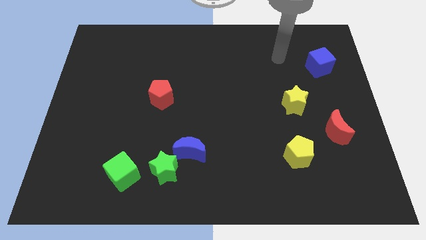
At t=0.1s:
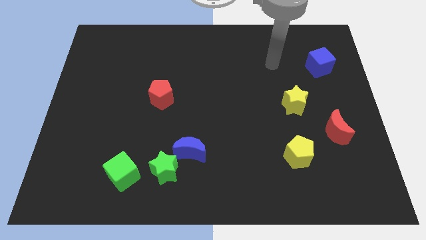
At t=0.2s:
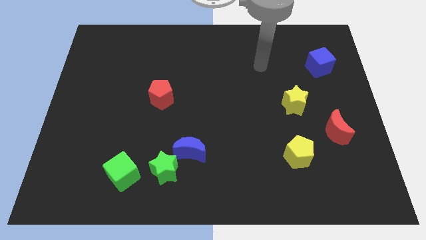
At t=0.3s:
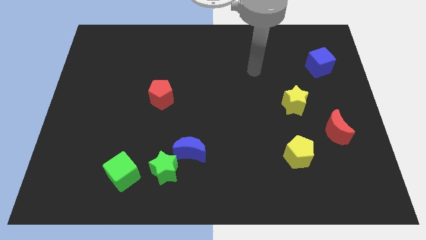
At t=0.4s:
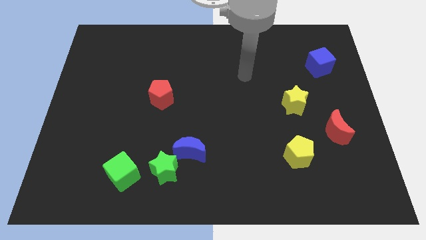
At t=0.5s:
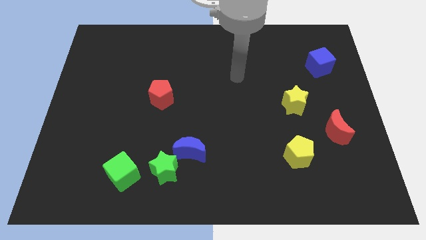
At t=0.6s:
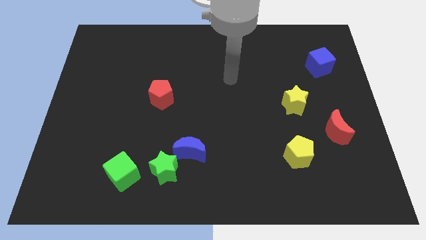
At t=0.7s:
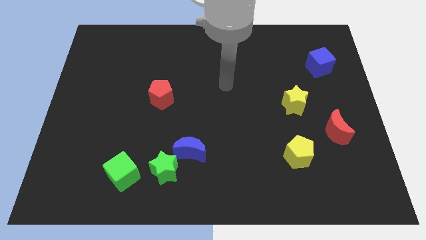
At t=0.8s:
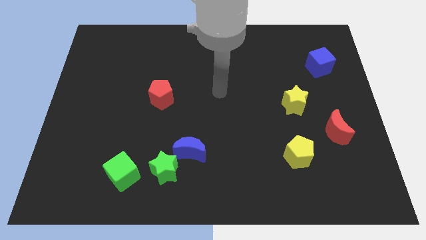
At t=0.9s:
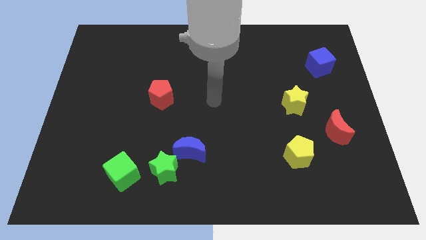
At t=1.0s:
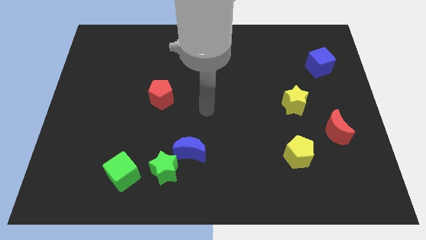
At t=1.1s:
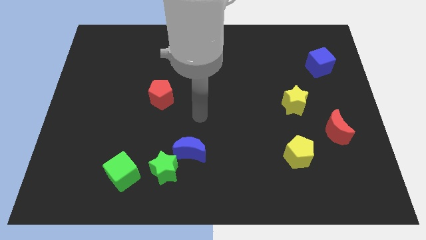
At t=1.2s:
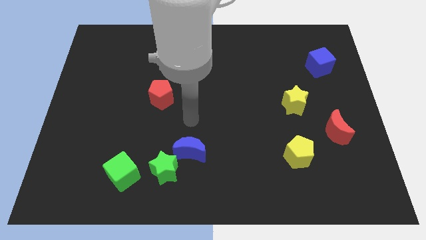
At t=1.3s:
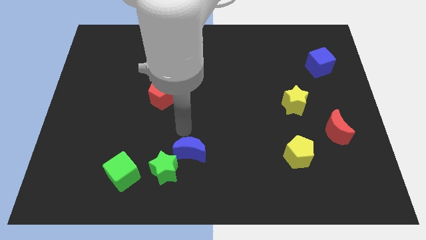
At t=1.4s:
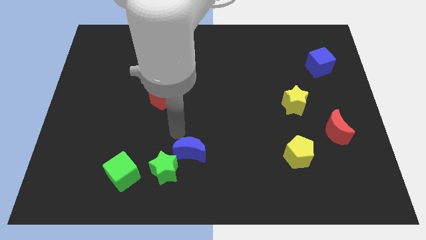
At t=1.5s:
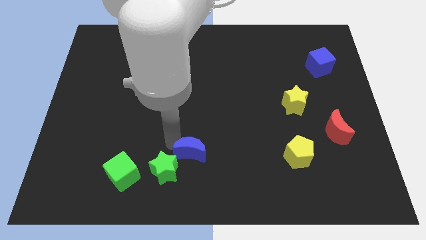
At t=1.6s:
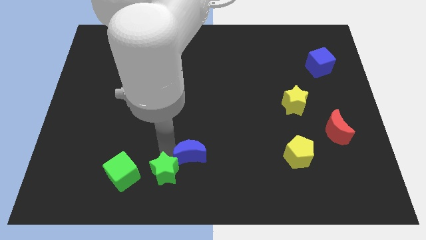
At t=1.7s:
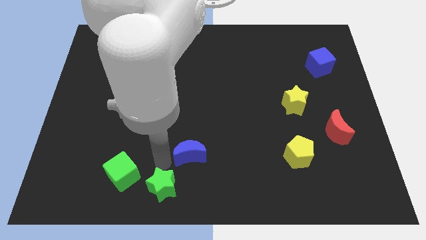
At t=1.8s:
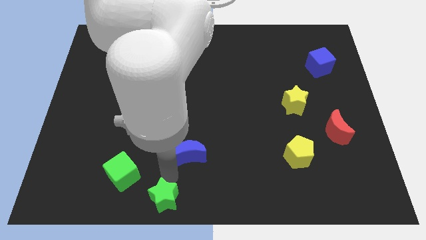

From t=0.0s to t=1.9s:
pull the blue moon apart from the green star

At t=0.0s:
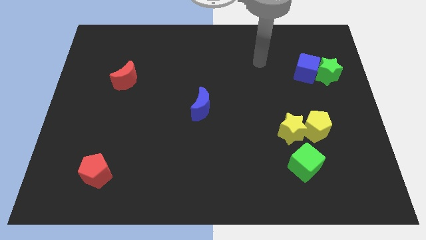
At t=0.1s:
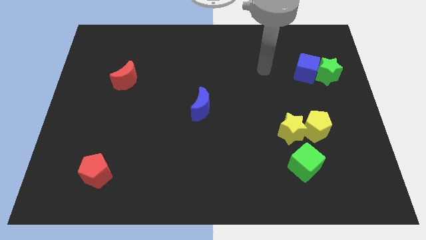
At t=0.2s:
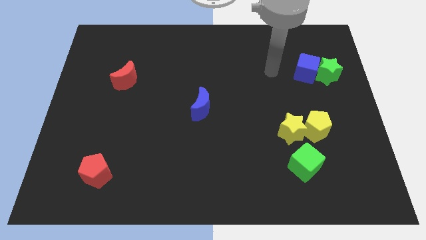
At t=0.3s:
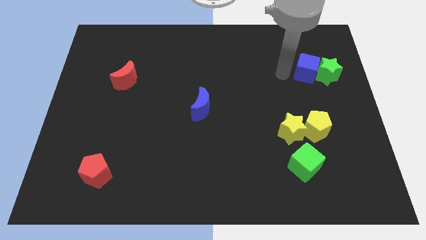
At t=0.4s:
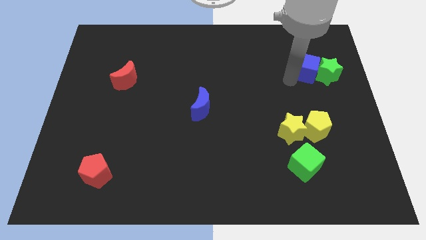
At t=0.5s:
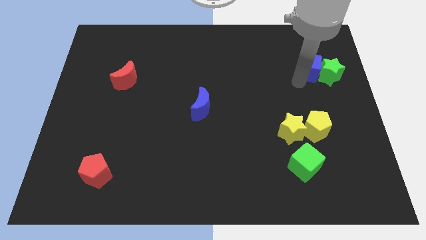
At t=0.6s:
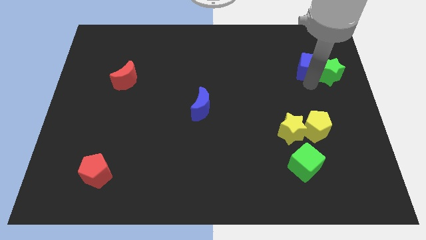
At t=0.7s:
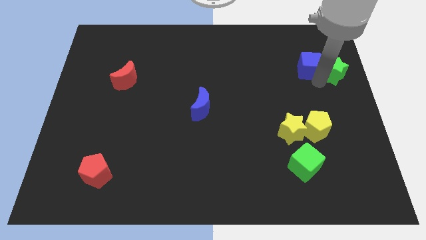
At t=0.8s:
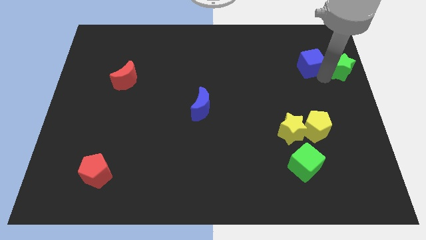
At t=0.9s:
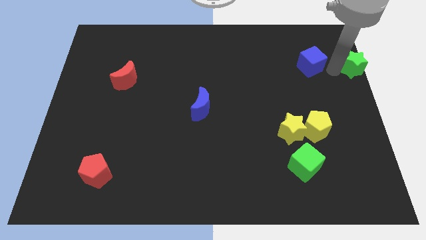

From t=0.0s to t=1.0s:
move the blue cube away from the green star

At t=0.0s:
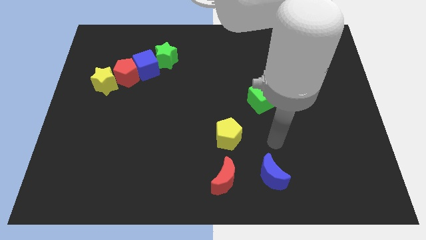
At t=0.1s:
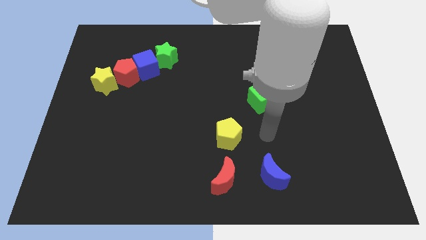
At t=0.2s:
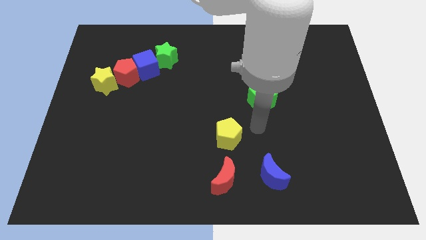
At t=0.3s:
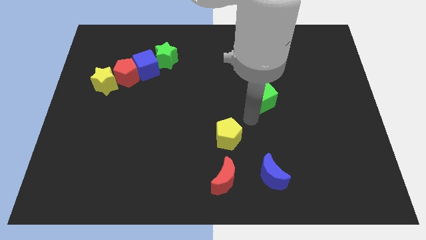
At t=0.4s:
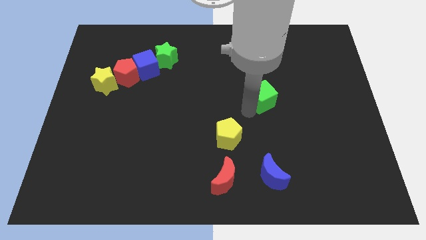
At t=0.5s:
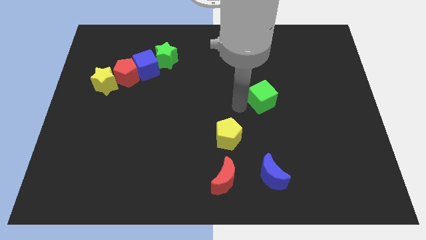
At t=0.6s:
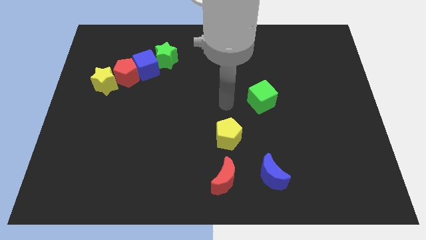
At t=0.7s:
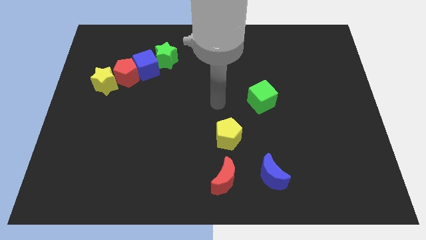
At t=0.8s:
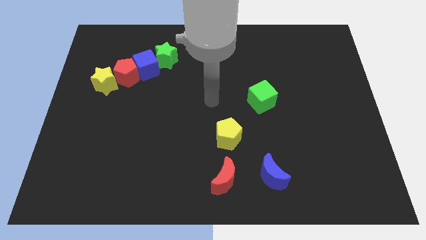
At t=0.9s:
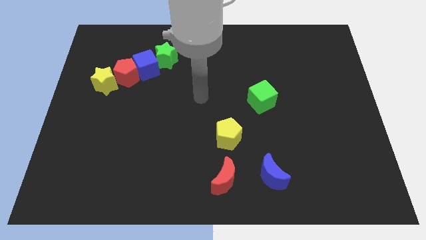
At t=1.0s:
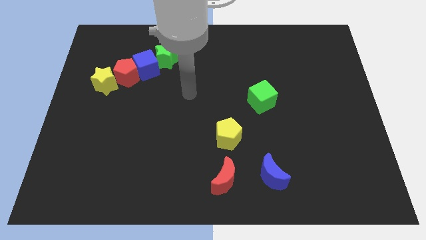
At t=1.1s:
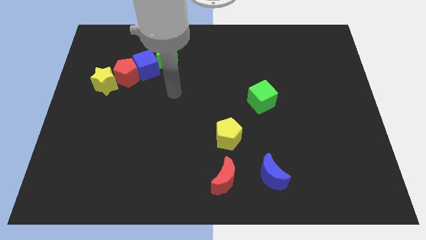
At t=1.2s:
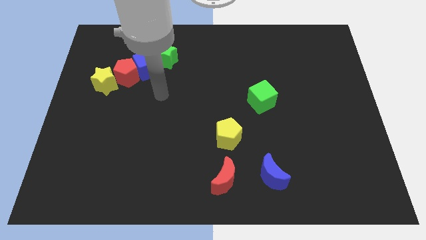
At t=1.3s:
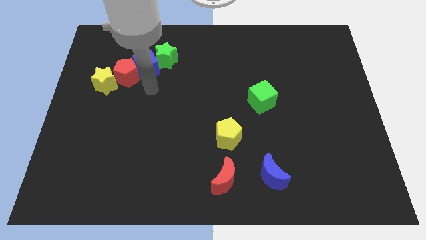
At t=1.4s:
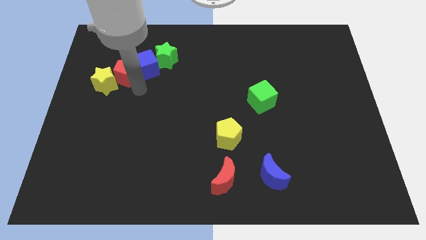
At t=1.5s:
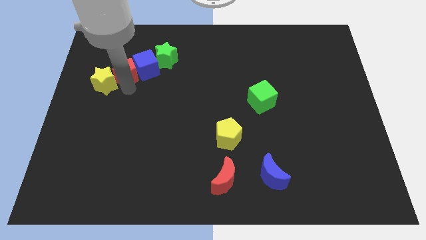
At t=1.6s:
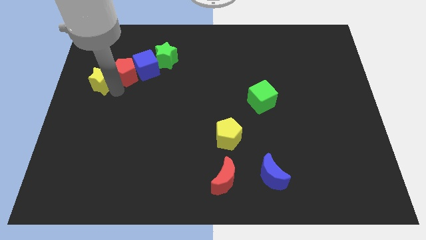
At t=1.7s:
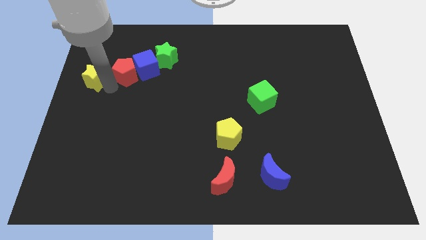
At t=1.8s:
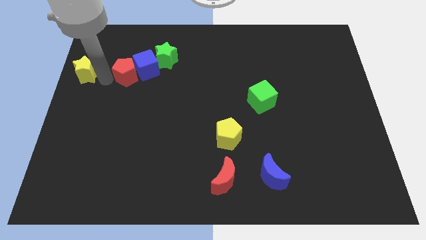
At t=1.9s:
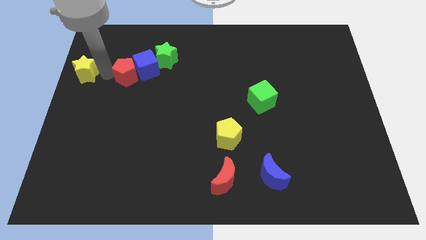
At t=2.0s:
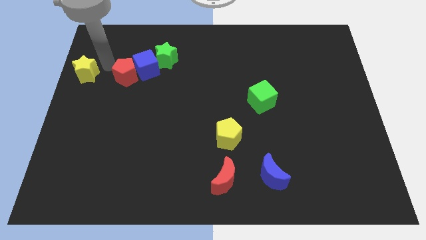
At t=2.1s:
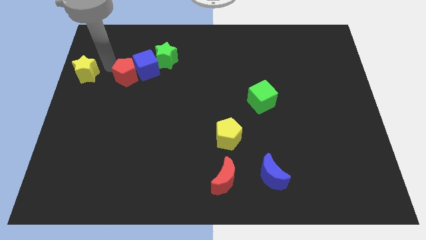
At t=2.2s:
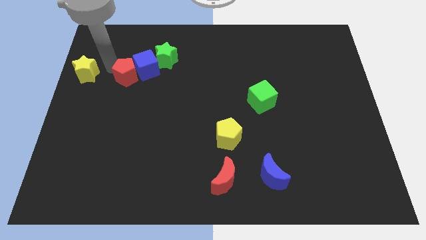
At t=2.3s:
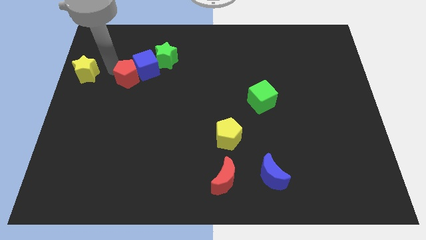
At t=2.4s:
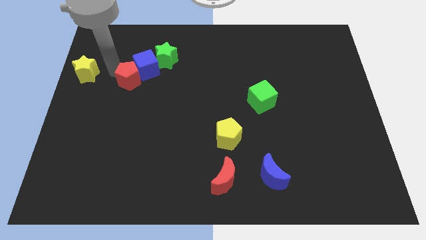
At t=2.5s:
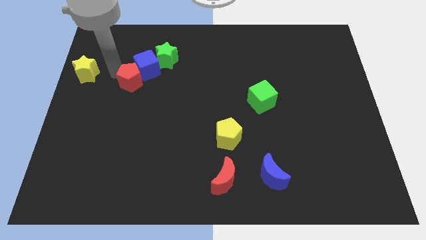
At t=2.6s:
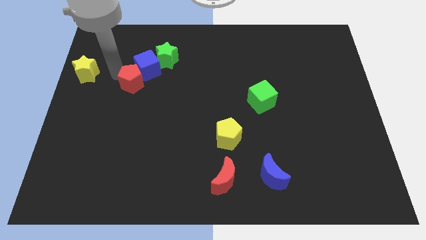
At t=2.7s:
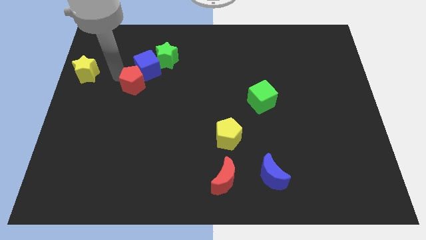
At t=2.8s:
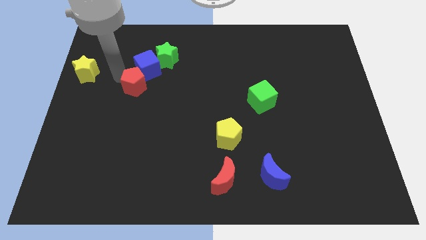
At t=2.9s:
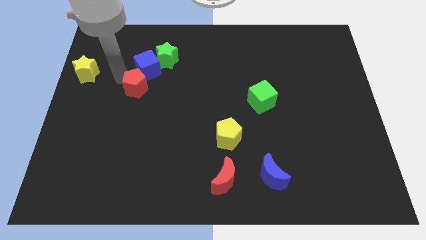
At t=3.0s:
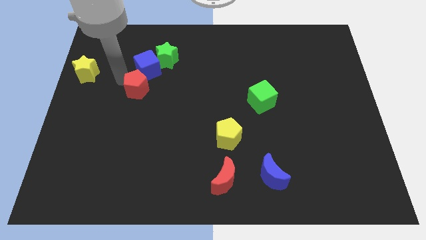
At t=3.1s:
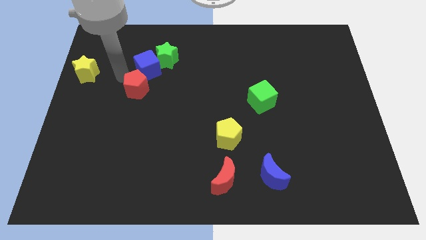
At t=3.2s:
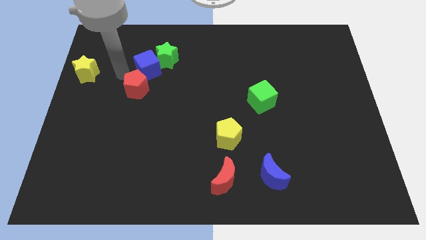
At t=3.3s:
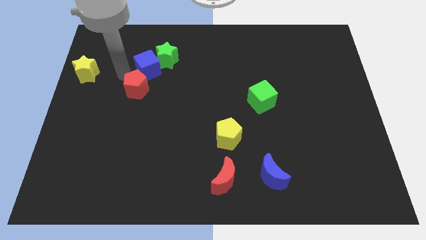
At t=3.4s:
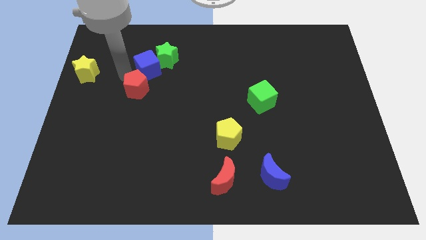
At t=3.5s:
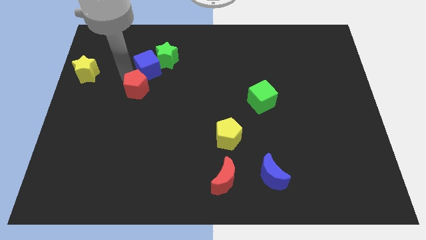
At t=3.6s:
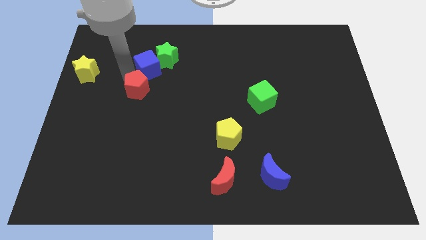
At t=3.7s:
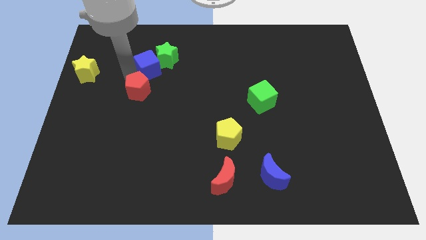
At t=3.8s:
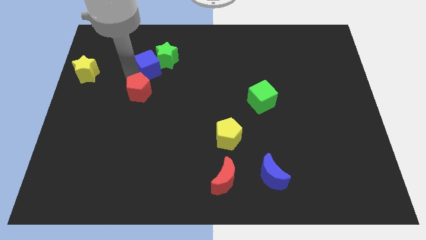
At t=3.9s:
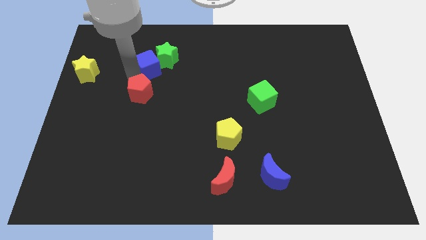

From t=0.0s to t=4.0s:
move the red pentagon away from the blue cube and yellow star

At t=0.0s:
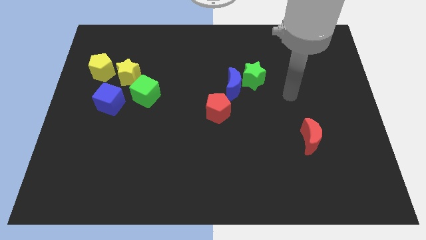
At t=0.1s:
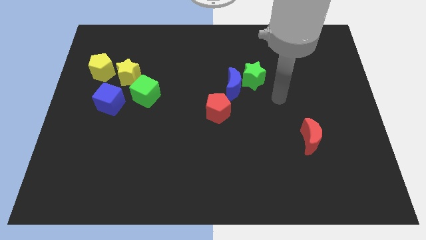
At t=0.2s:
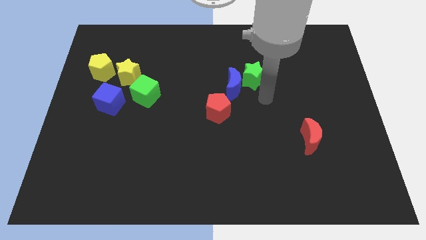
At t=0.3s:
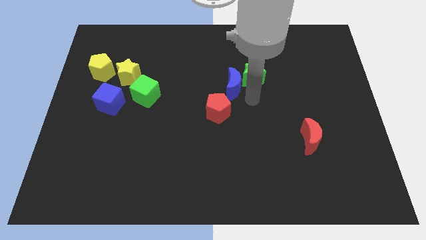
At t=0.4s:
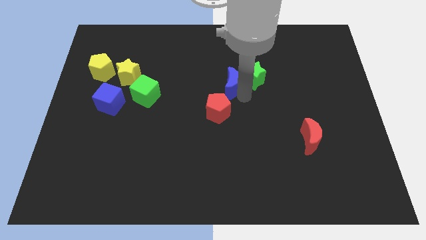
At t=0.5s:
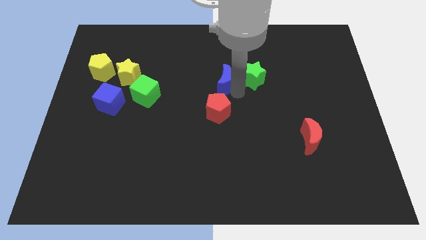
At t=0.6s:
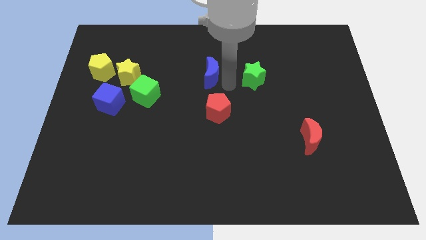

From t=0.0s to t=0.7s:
separate the green star from the blue moon

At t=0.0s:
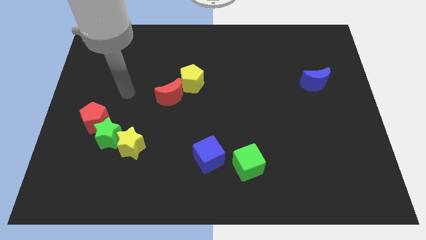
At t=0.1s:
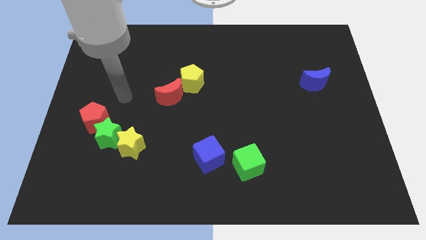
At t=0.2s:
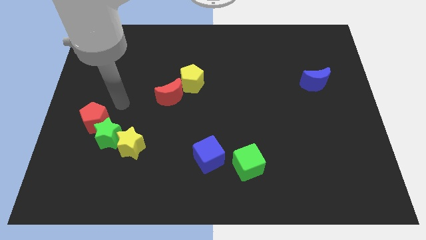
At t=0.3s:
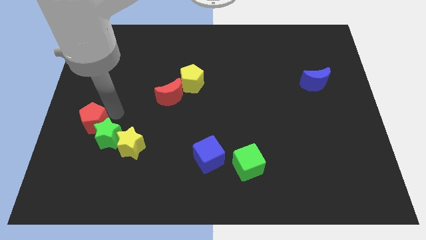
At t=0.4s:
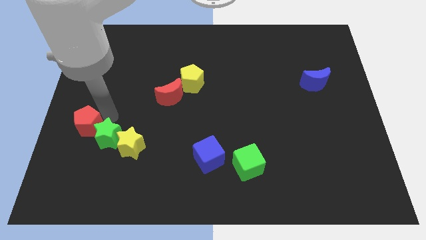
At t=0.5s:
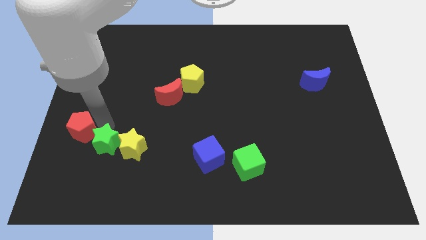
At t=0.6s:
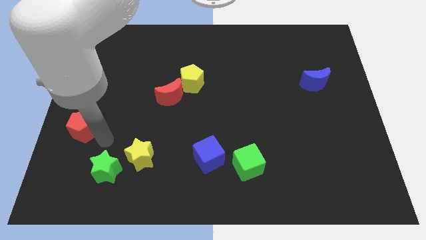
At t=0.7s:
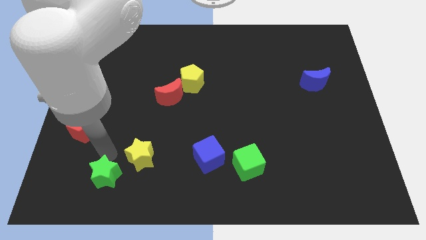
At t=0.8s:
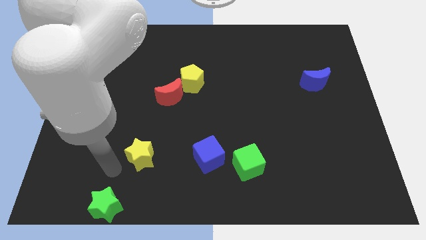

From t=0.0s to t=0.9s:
pull the yellow star apart from the green star

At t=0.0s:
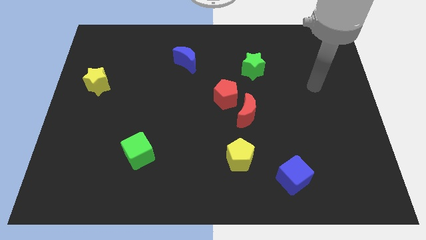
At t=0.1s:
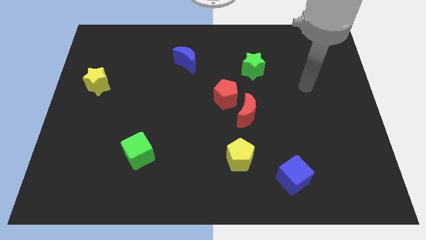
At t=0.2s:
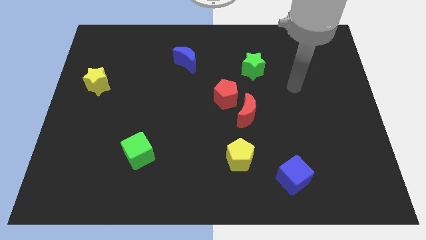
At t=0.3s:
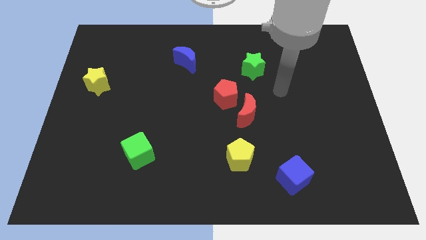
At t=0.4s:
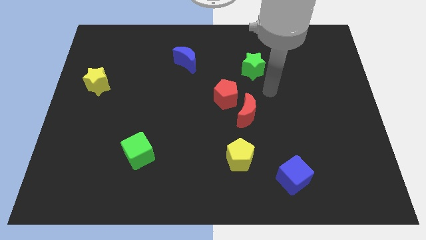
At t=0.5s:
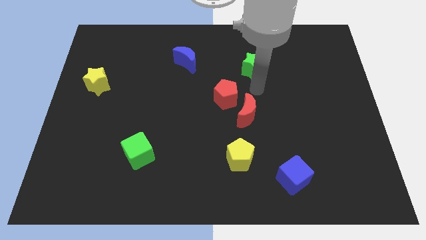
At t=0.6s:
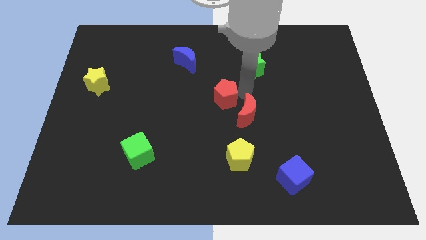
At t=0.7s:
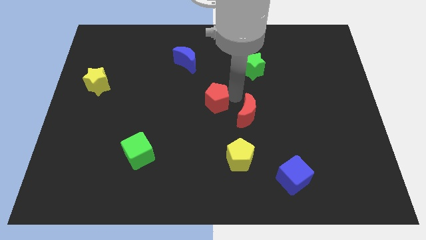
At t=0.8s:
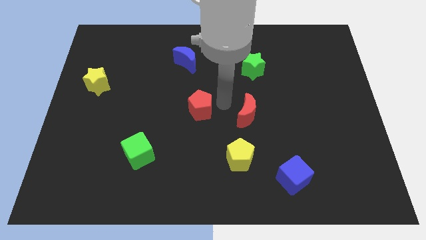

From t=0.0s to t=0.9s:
move the red moon away from the red pentagon
